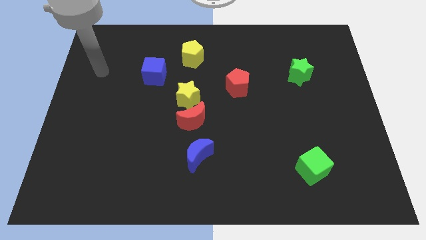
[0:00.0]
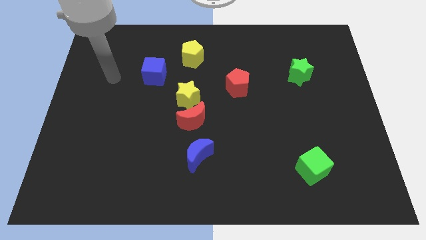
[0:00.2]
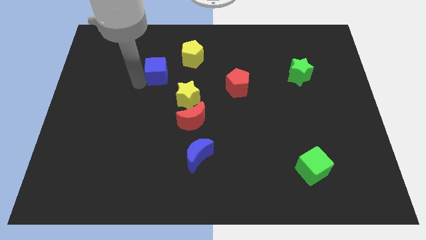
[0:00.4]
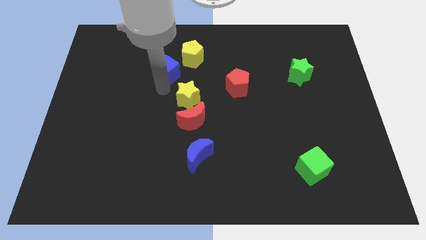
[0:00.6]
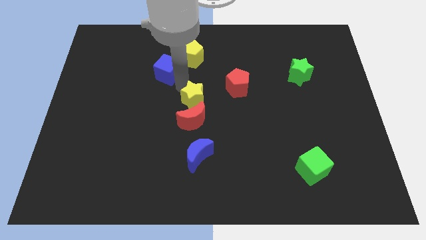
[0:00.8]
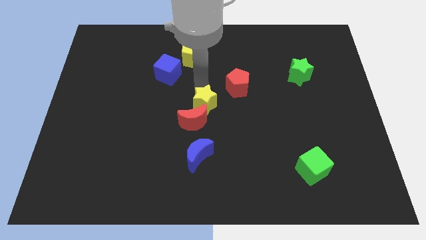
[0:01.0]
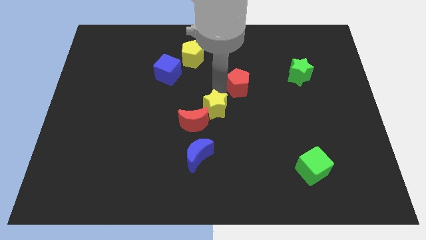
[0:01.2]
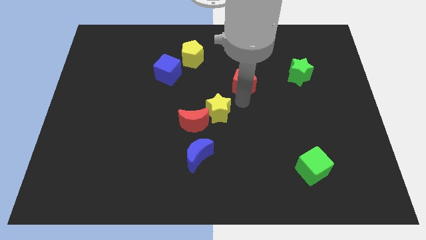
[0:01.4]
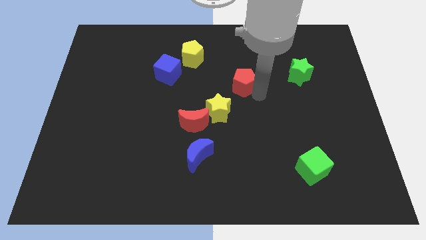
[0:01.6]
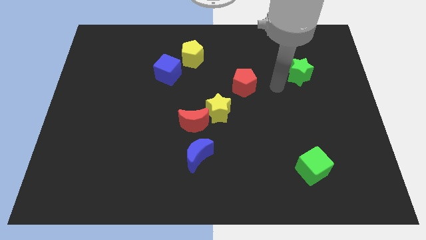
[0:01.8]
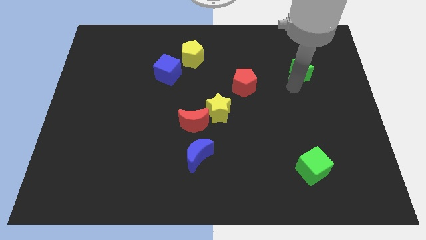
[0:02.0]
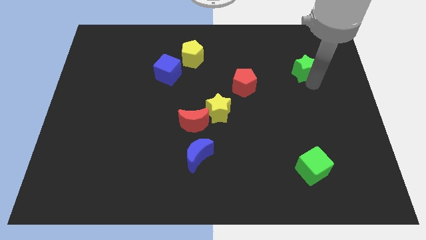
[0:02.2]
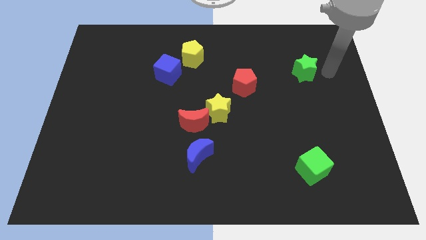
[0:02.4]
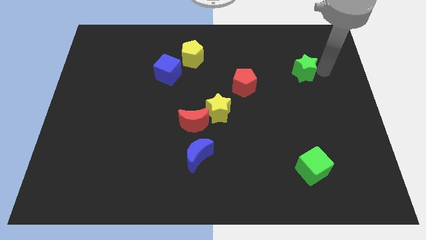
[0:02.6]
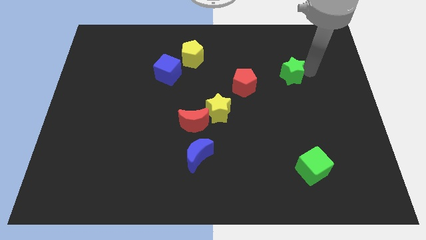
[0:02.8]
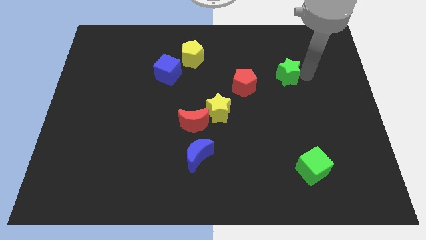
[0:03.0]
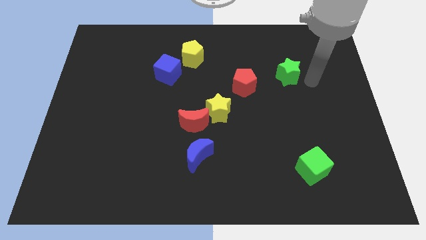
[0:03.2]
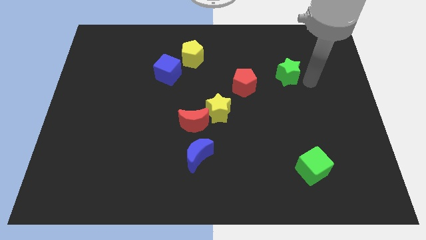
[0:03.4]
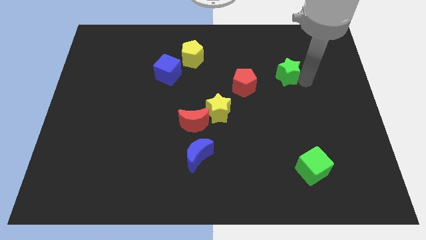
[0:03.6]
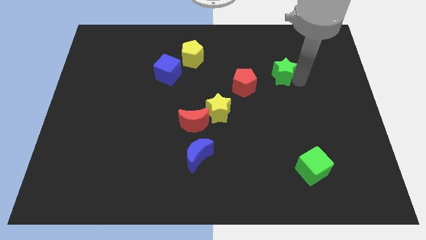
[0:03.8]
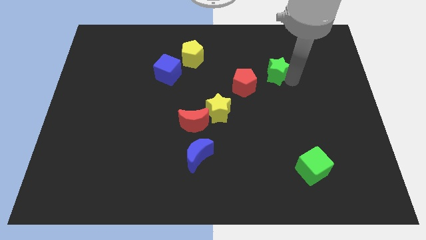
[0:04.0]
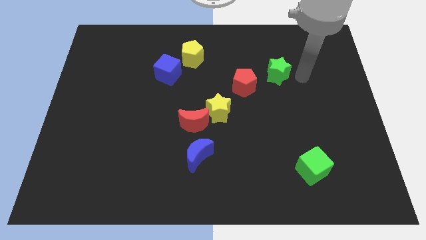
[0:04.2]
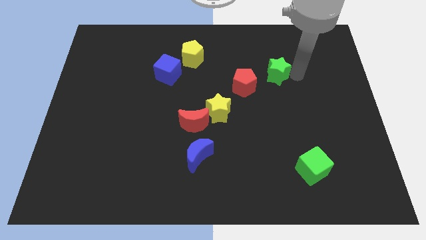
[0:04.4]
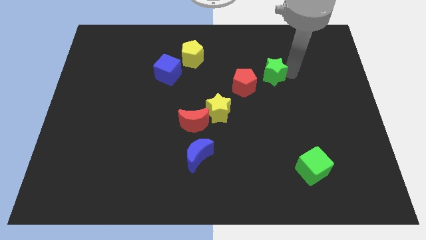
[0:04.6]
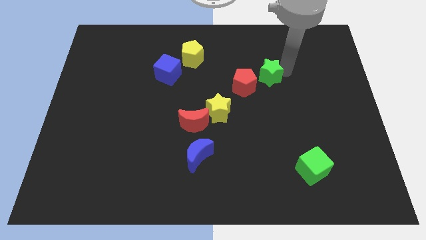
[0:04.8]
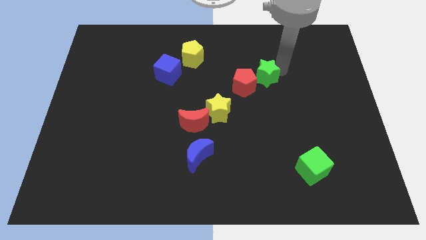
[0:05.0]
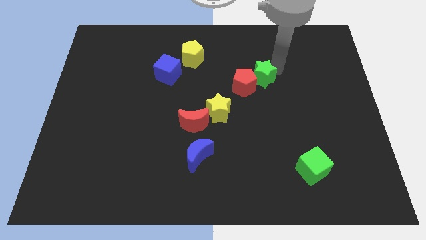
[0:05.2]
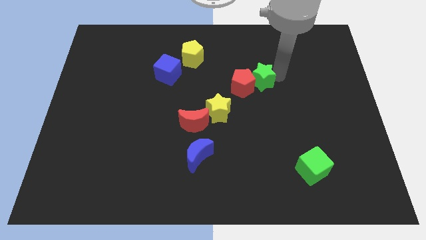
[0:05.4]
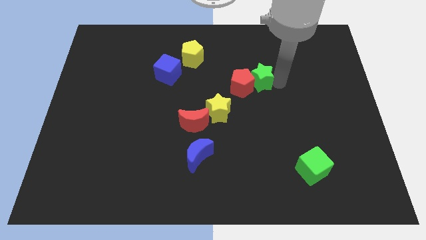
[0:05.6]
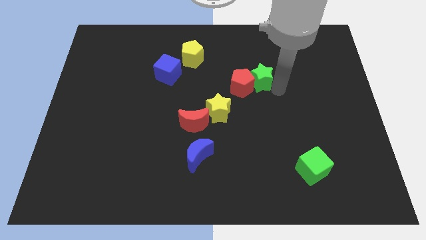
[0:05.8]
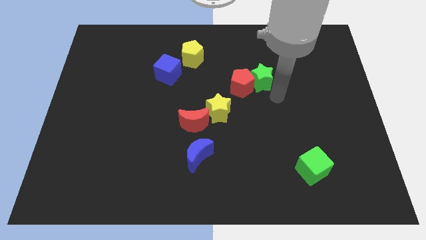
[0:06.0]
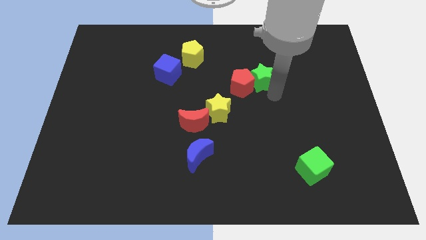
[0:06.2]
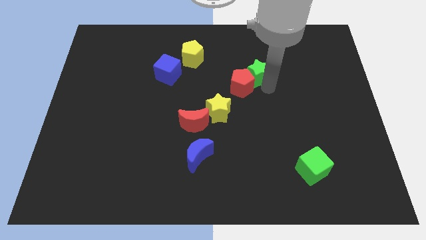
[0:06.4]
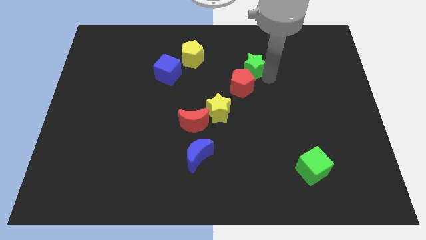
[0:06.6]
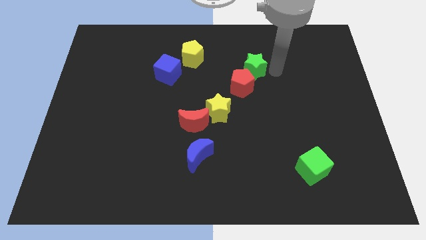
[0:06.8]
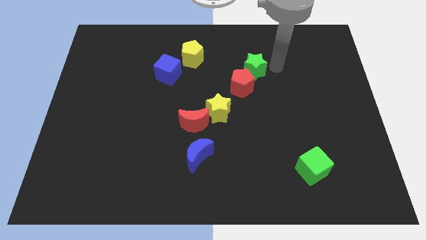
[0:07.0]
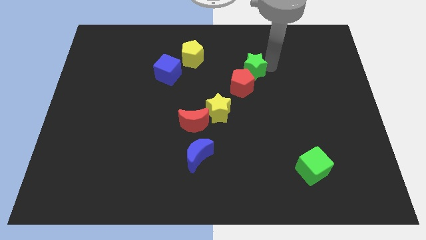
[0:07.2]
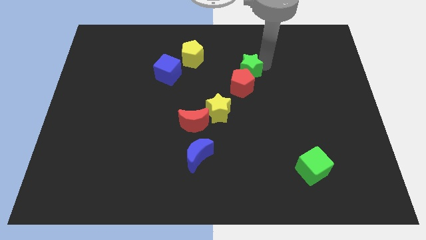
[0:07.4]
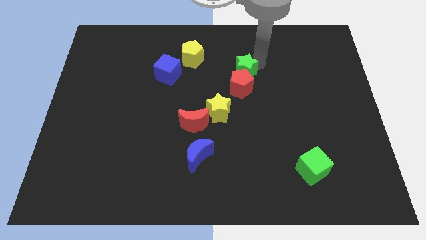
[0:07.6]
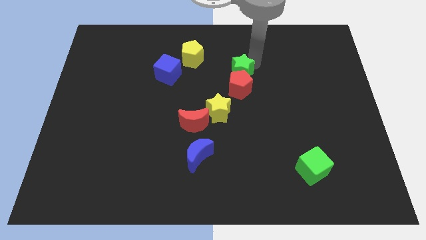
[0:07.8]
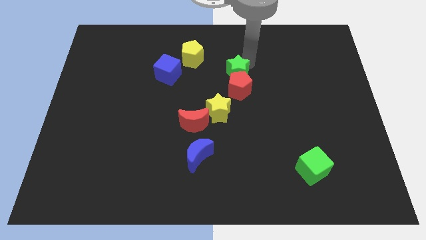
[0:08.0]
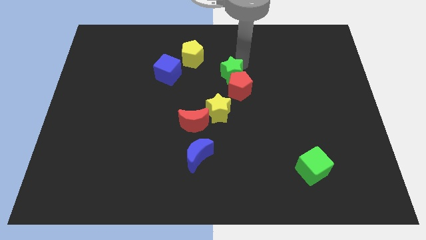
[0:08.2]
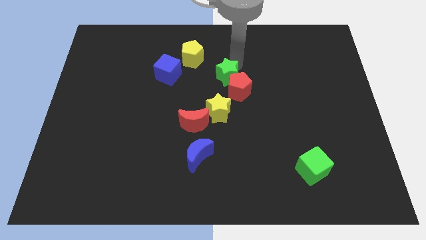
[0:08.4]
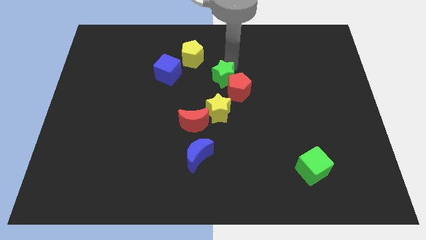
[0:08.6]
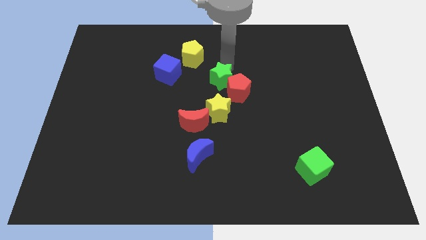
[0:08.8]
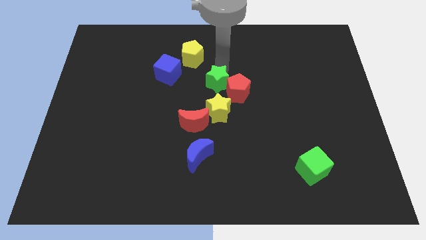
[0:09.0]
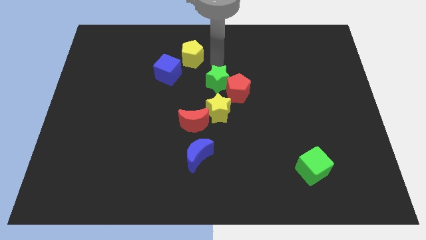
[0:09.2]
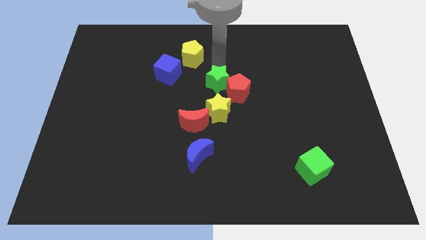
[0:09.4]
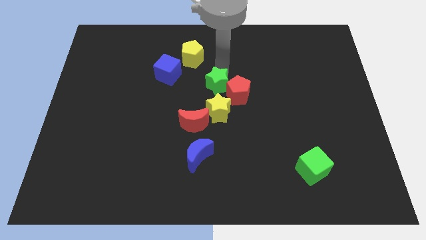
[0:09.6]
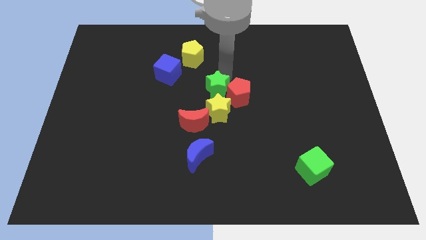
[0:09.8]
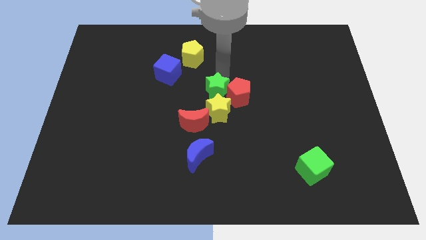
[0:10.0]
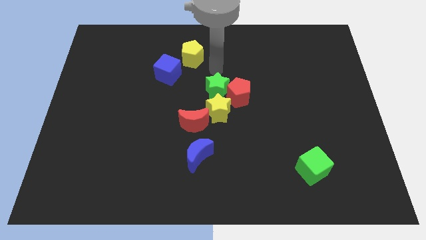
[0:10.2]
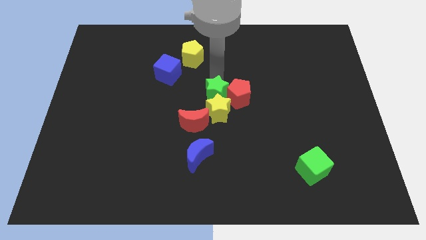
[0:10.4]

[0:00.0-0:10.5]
push the green star to the yellow star

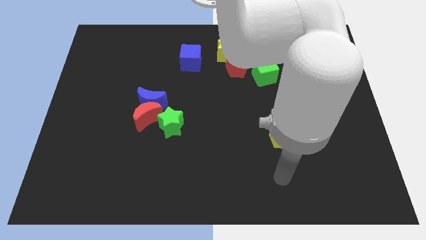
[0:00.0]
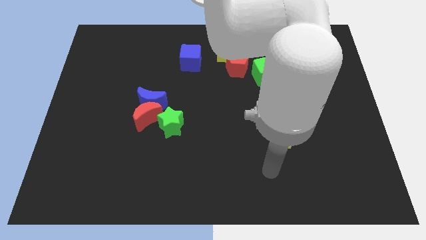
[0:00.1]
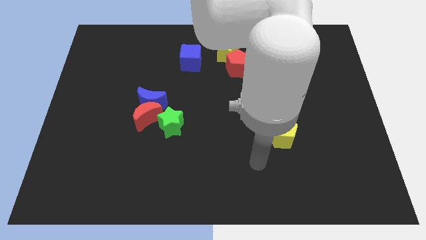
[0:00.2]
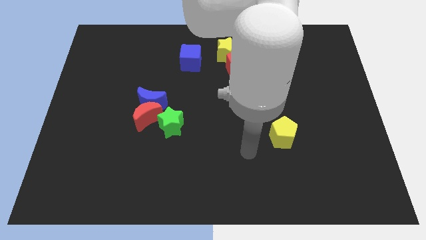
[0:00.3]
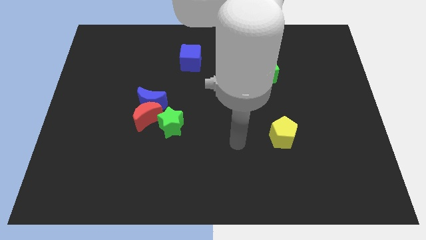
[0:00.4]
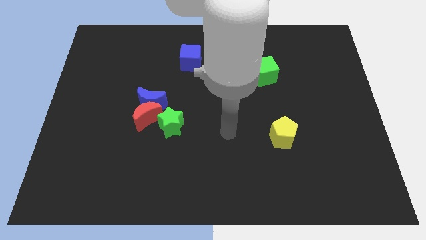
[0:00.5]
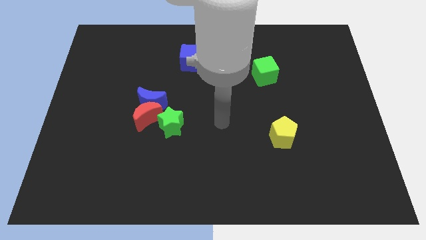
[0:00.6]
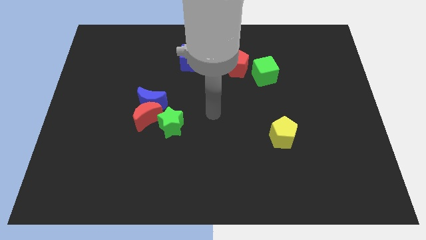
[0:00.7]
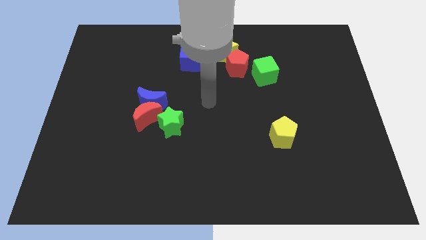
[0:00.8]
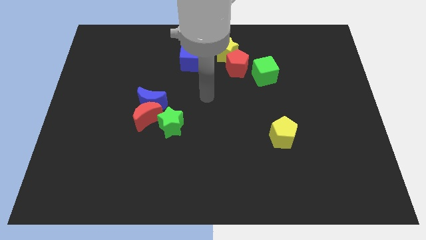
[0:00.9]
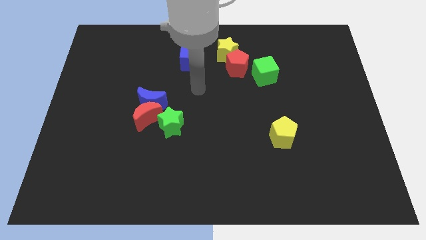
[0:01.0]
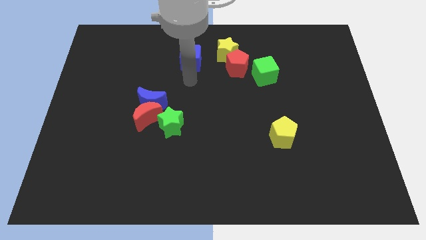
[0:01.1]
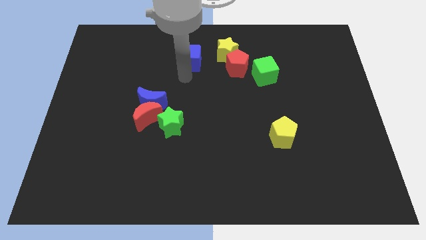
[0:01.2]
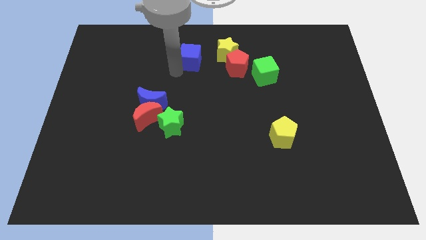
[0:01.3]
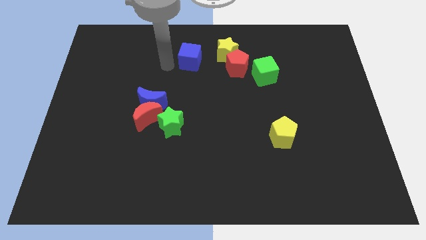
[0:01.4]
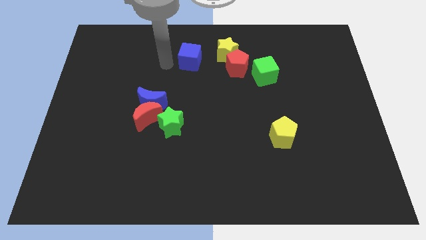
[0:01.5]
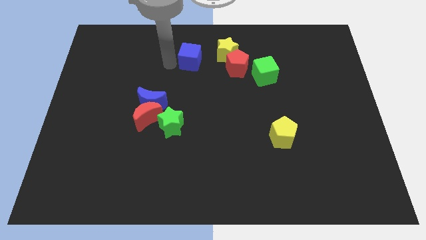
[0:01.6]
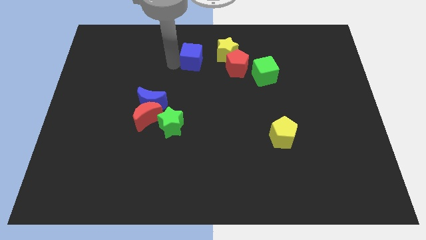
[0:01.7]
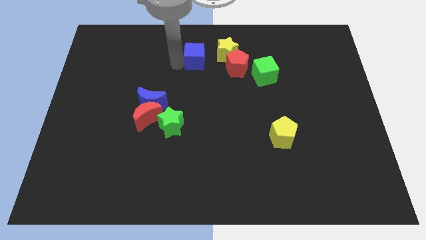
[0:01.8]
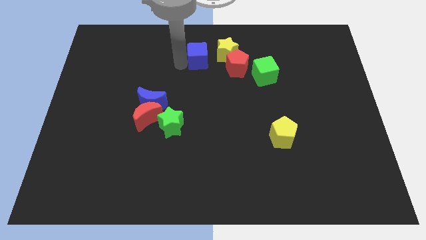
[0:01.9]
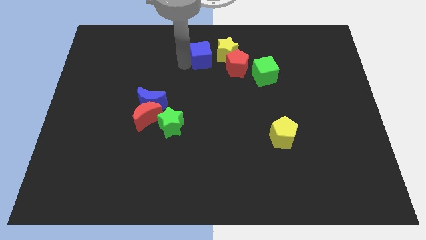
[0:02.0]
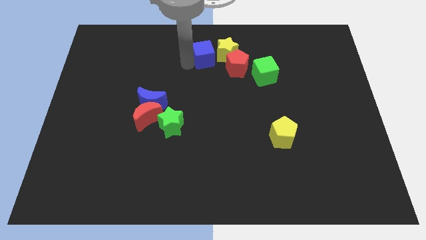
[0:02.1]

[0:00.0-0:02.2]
slide the blue cube next to the yellow star
